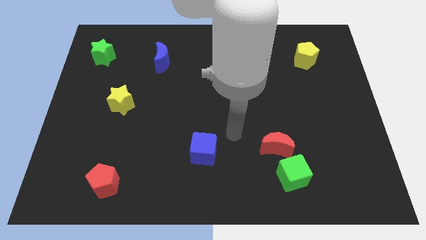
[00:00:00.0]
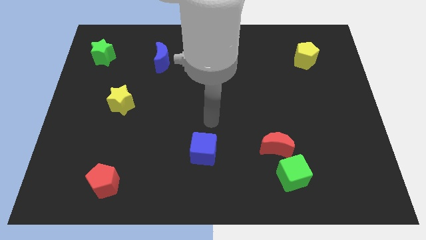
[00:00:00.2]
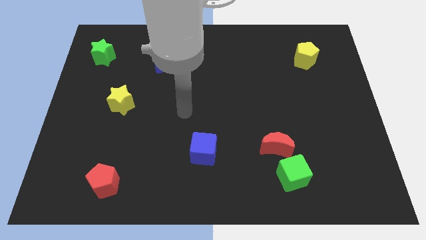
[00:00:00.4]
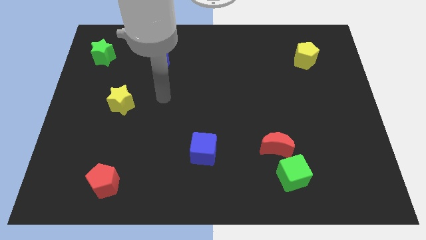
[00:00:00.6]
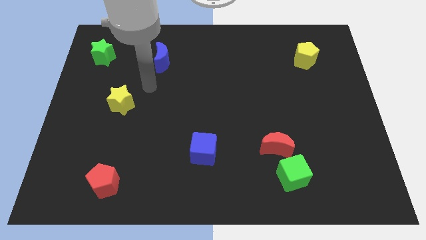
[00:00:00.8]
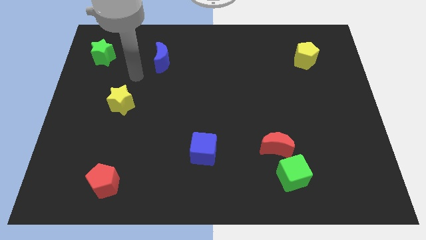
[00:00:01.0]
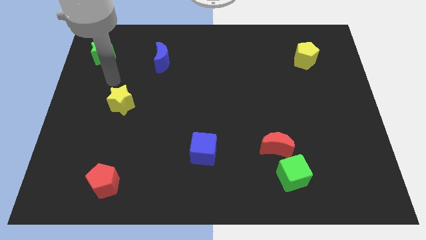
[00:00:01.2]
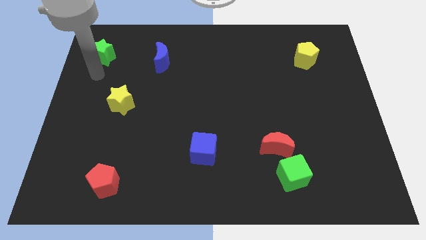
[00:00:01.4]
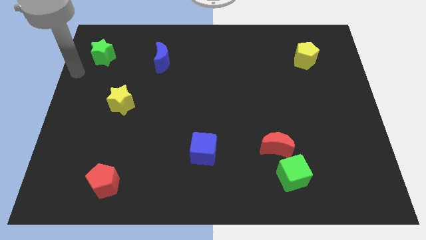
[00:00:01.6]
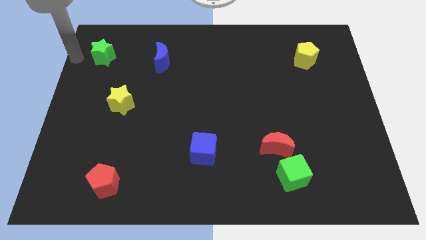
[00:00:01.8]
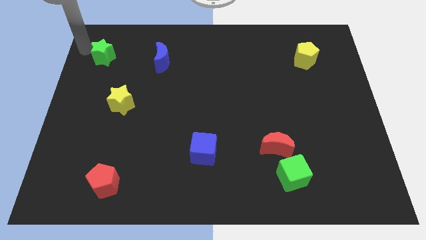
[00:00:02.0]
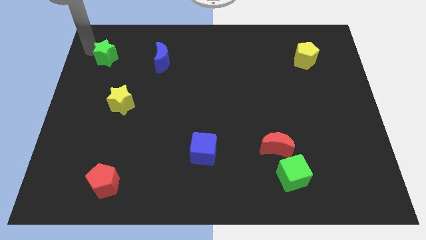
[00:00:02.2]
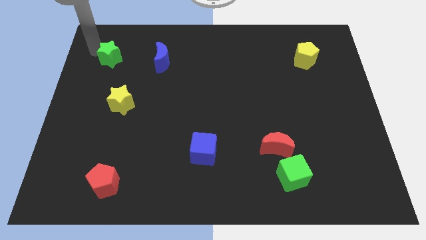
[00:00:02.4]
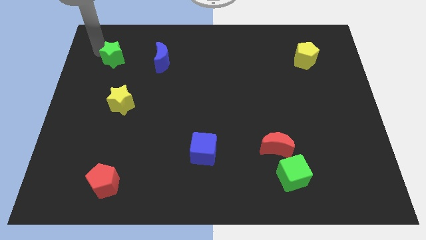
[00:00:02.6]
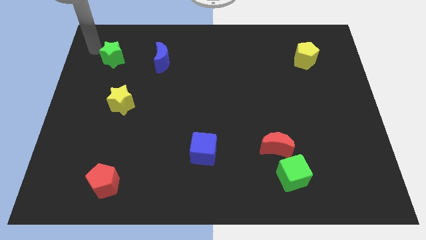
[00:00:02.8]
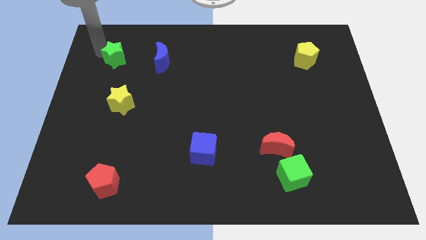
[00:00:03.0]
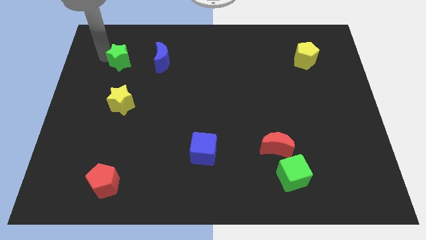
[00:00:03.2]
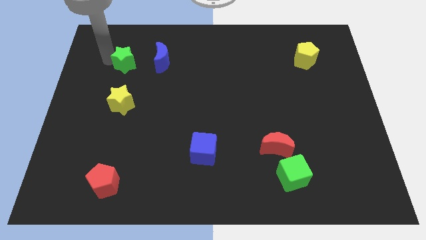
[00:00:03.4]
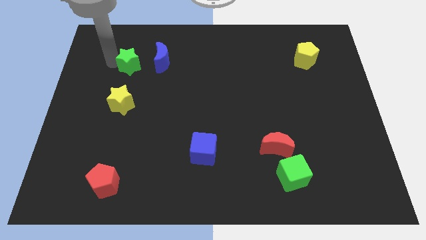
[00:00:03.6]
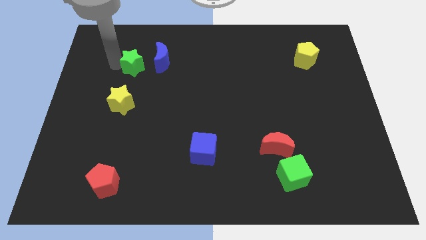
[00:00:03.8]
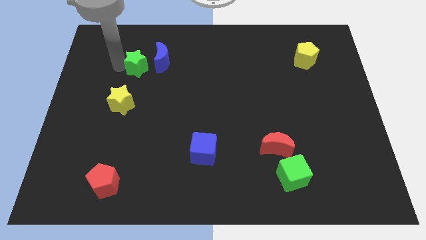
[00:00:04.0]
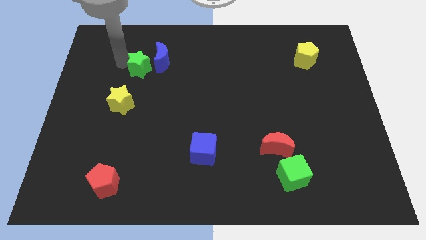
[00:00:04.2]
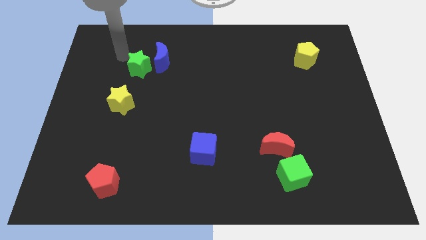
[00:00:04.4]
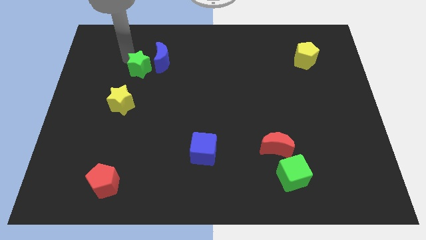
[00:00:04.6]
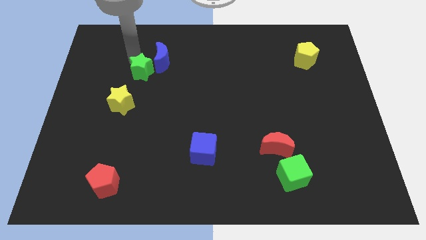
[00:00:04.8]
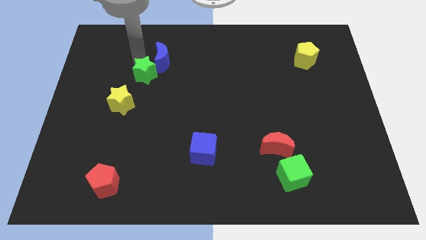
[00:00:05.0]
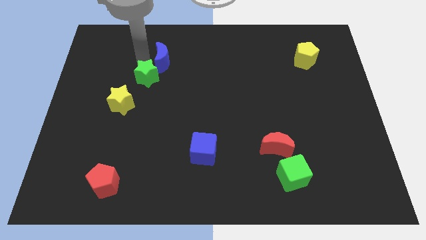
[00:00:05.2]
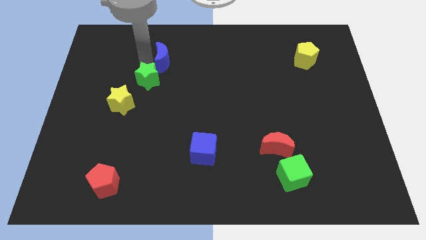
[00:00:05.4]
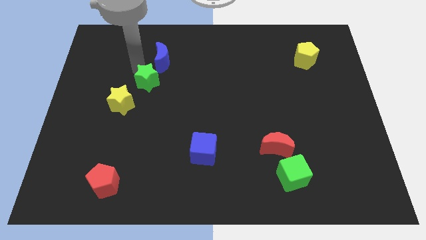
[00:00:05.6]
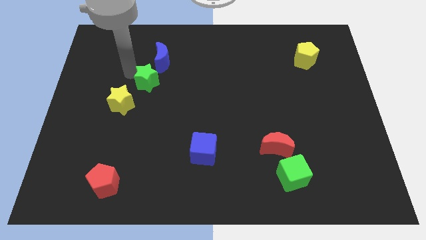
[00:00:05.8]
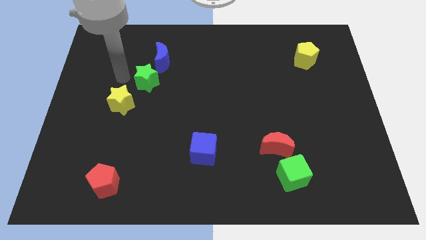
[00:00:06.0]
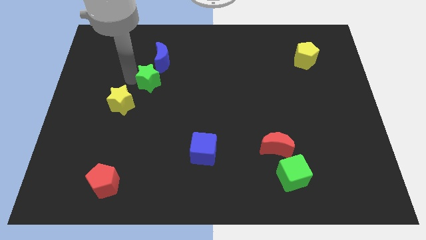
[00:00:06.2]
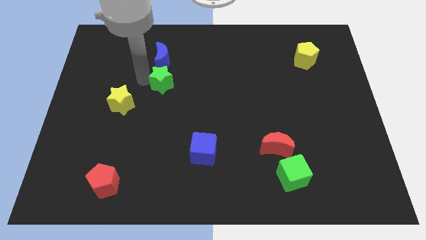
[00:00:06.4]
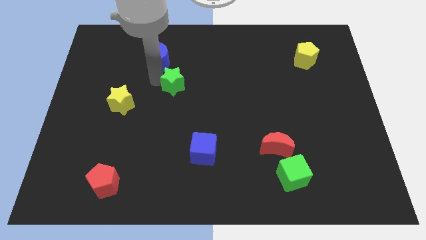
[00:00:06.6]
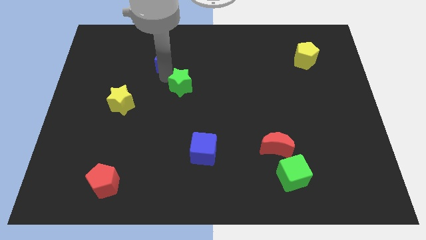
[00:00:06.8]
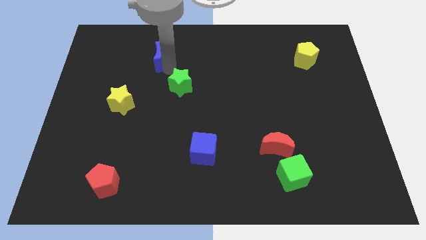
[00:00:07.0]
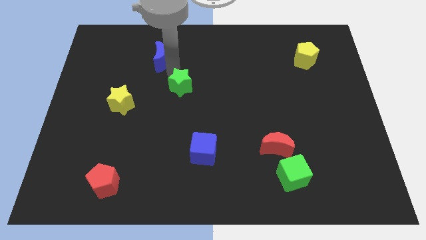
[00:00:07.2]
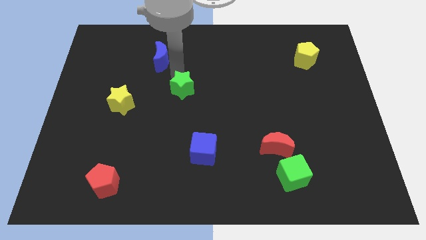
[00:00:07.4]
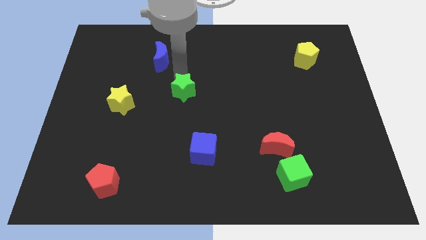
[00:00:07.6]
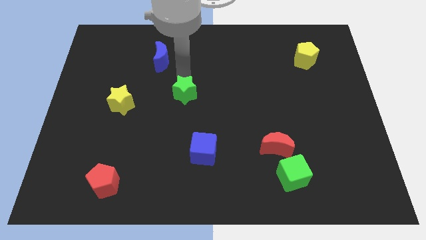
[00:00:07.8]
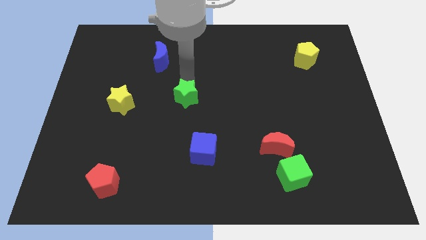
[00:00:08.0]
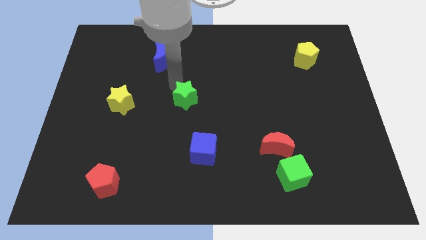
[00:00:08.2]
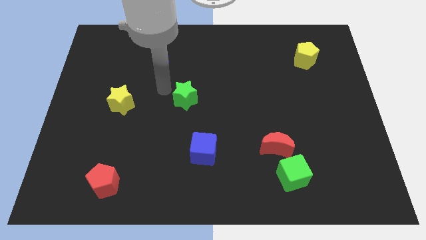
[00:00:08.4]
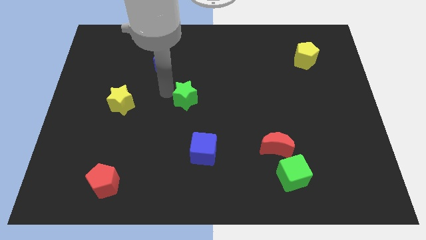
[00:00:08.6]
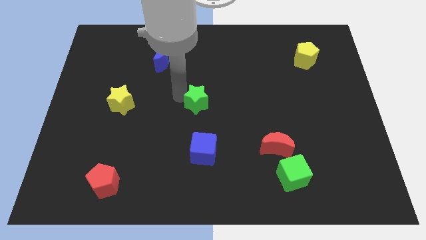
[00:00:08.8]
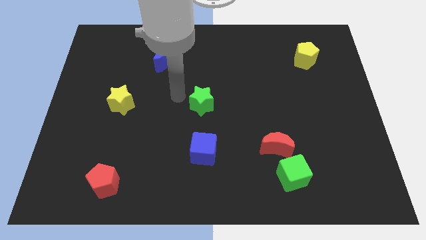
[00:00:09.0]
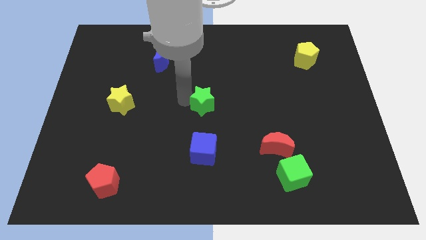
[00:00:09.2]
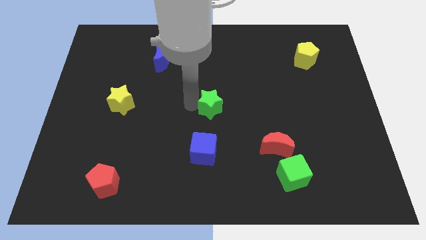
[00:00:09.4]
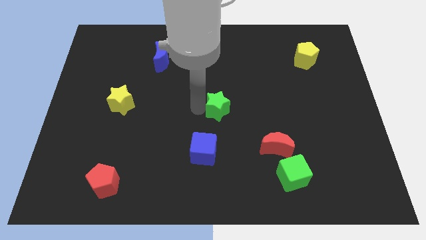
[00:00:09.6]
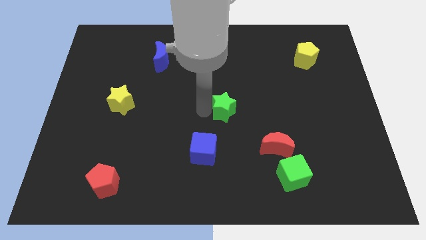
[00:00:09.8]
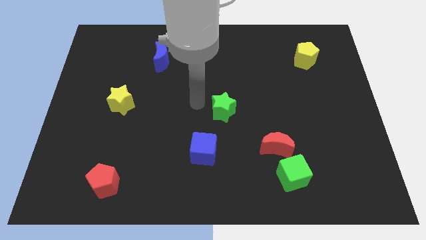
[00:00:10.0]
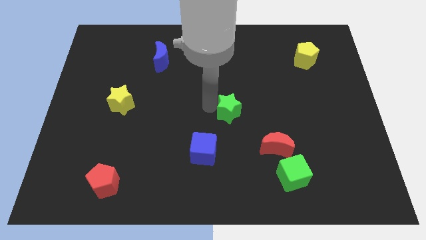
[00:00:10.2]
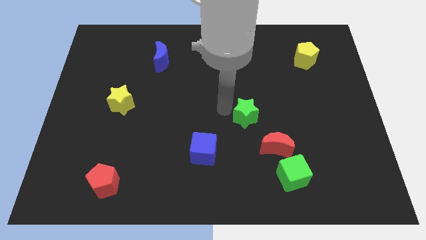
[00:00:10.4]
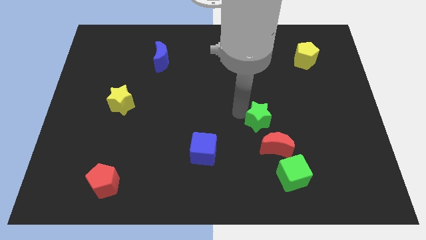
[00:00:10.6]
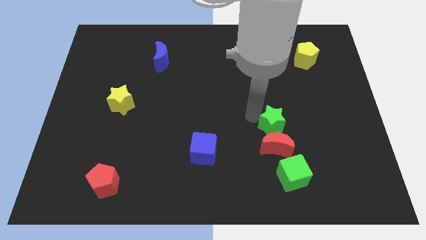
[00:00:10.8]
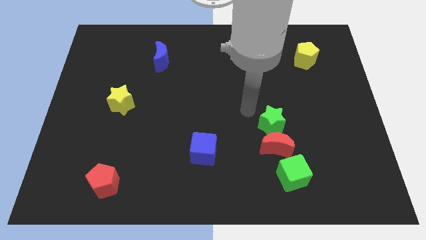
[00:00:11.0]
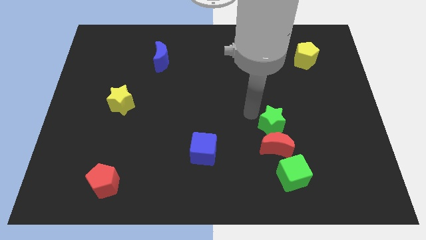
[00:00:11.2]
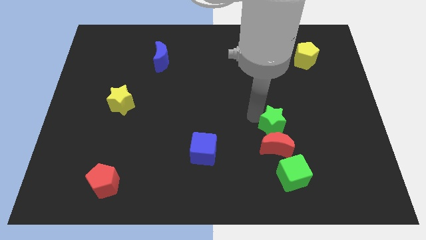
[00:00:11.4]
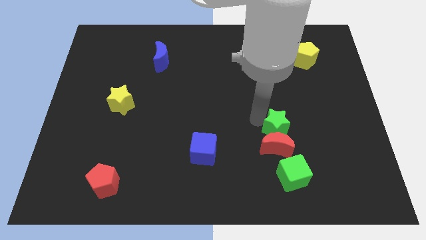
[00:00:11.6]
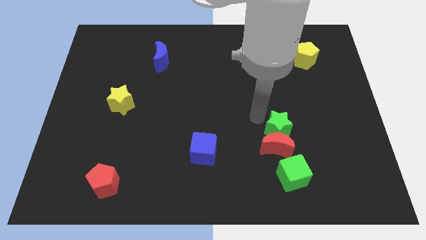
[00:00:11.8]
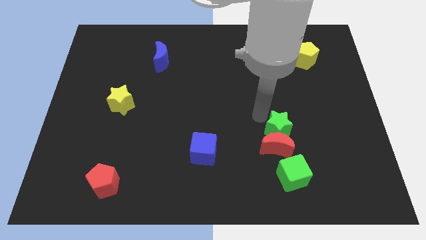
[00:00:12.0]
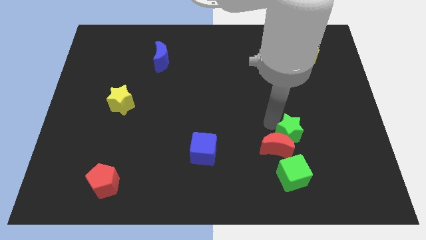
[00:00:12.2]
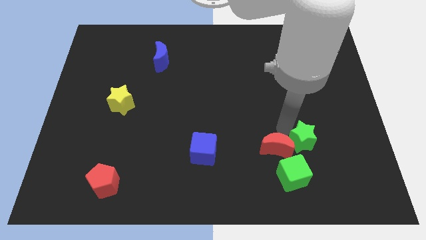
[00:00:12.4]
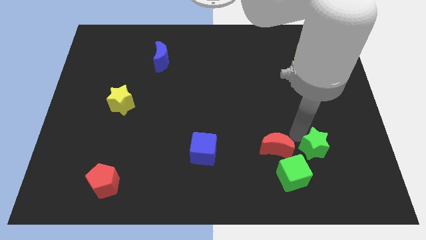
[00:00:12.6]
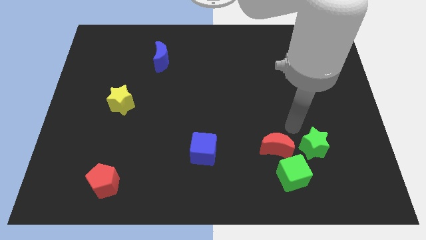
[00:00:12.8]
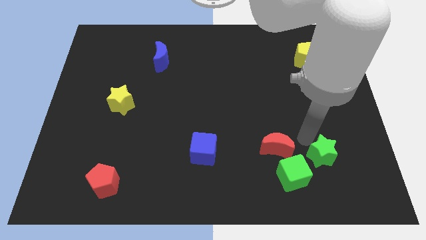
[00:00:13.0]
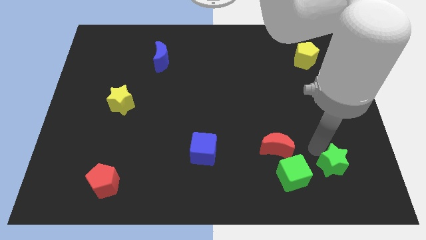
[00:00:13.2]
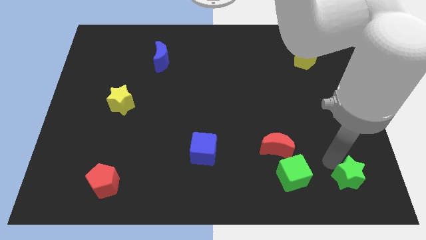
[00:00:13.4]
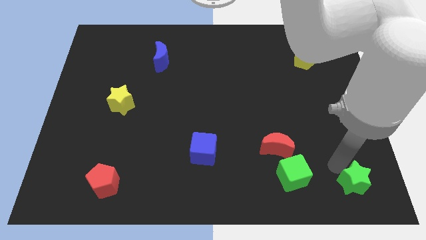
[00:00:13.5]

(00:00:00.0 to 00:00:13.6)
push the green star to the bottom right
